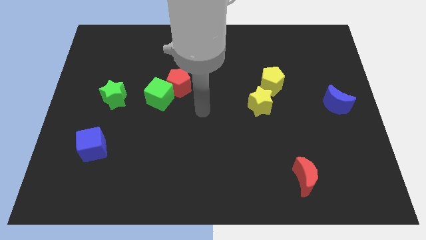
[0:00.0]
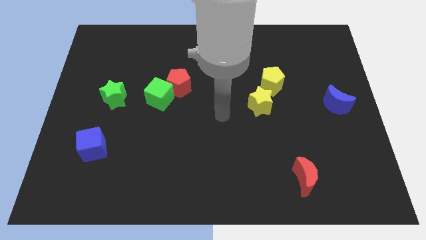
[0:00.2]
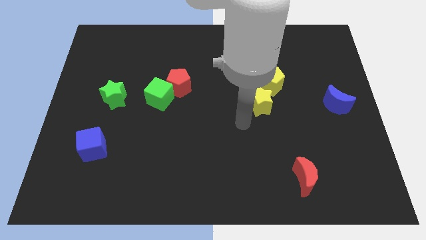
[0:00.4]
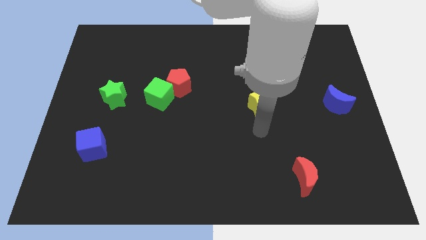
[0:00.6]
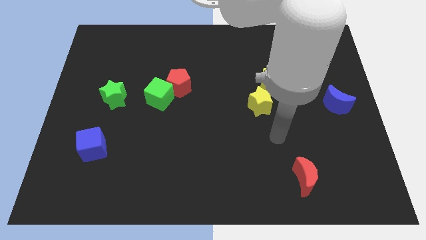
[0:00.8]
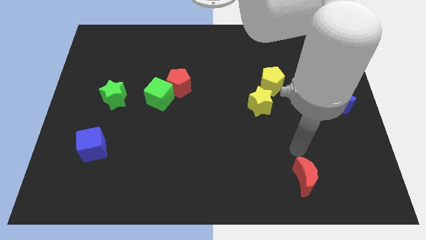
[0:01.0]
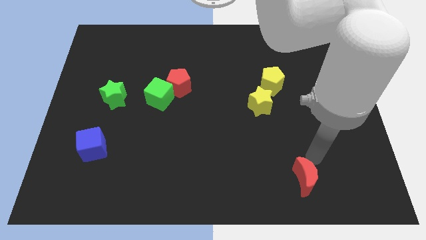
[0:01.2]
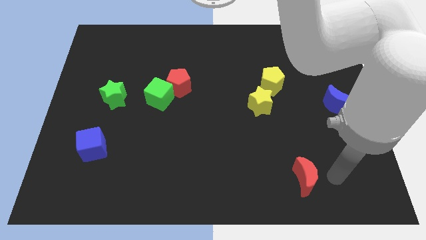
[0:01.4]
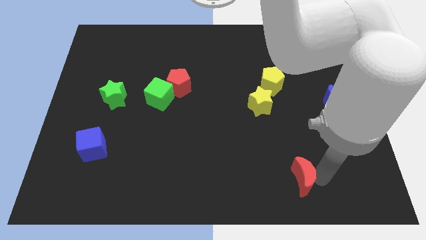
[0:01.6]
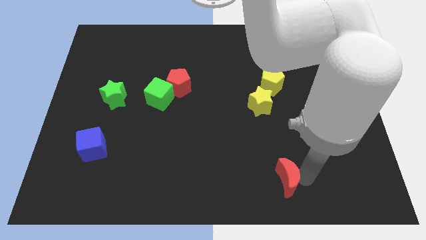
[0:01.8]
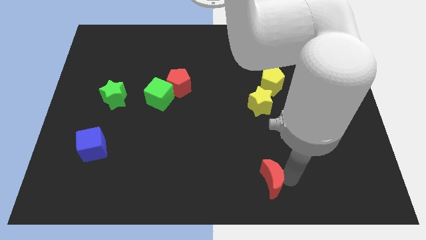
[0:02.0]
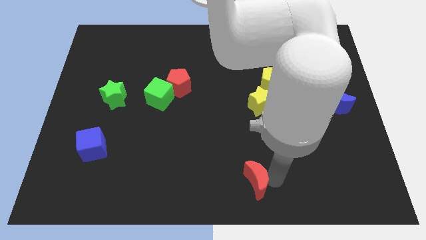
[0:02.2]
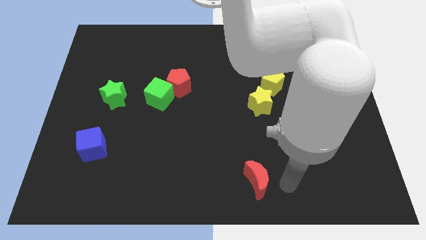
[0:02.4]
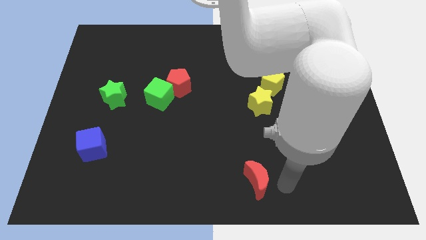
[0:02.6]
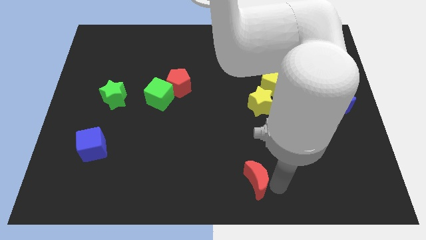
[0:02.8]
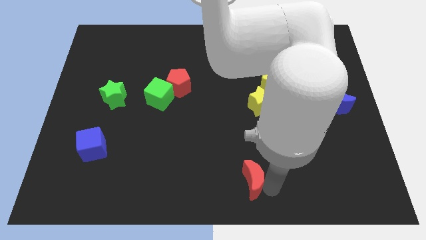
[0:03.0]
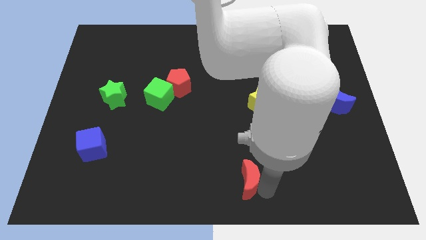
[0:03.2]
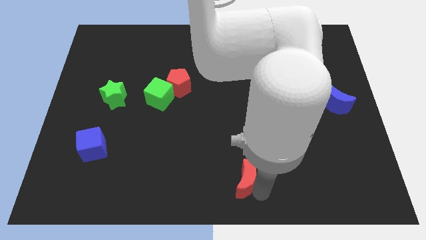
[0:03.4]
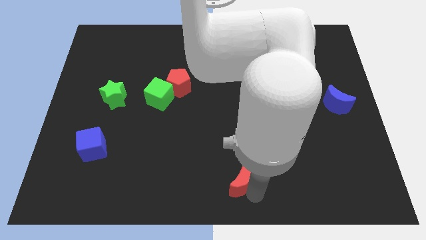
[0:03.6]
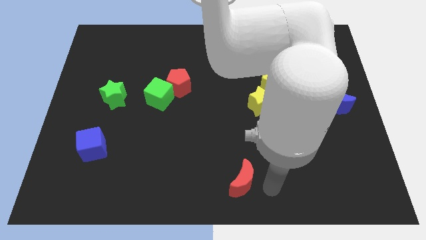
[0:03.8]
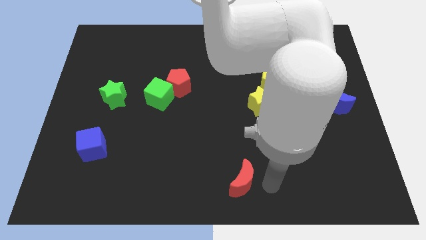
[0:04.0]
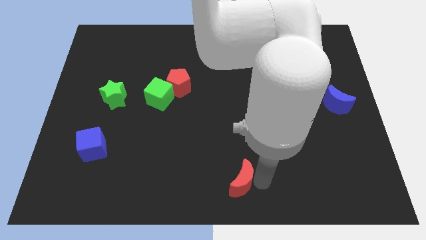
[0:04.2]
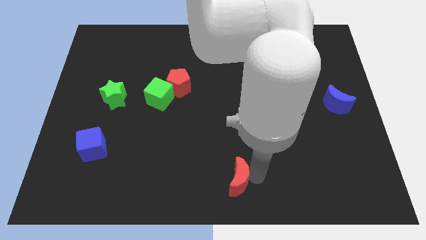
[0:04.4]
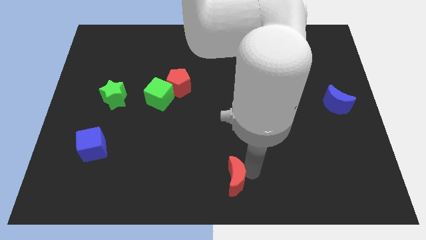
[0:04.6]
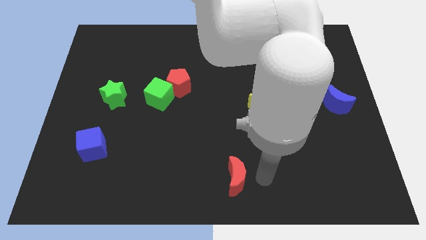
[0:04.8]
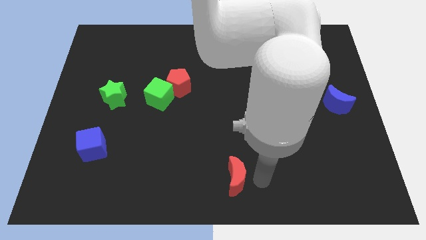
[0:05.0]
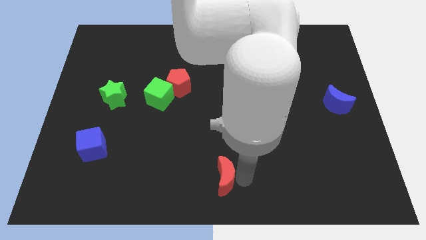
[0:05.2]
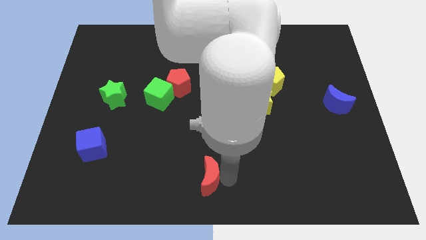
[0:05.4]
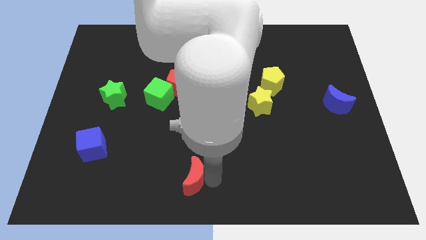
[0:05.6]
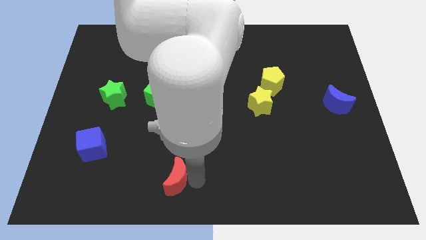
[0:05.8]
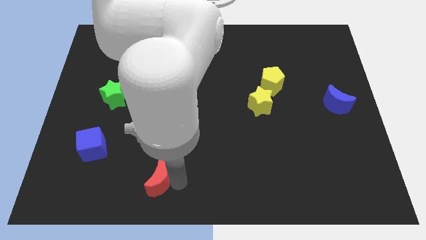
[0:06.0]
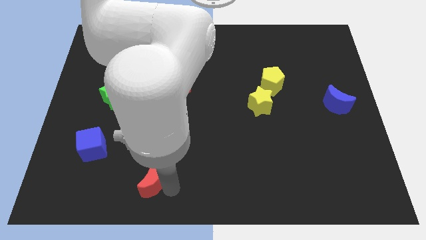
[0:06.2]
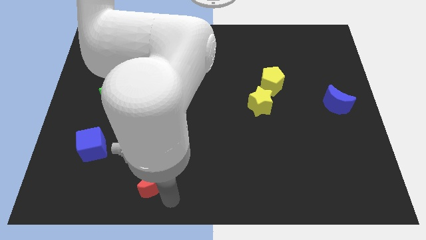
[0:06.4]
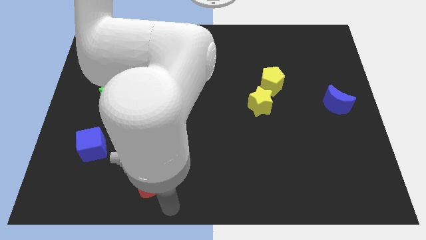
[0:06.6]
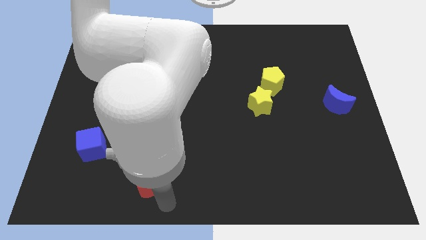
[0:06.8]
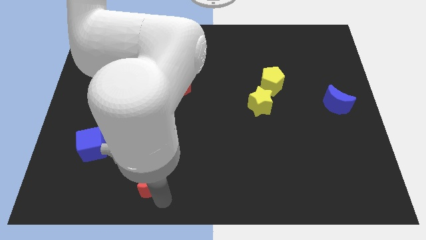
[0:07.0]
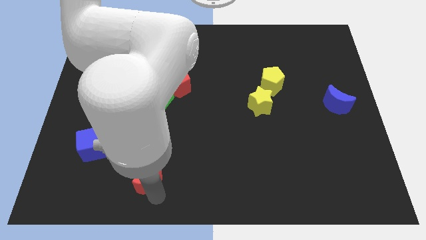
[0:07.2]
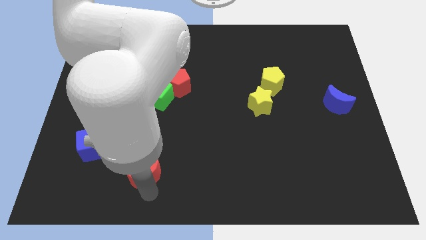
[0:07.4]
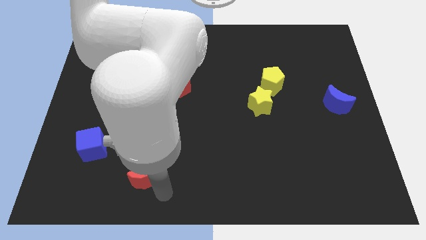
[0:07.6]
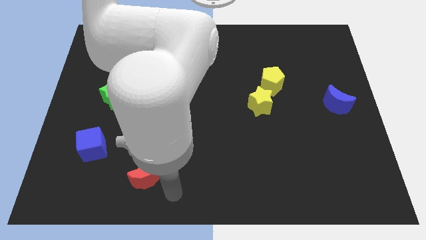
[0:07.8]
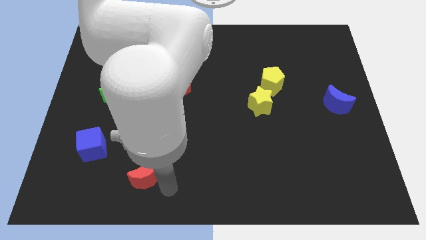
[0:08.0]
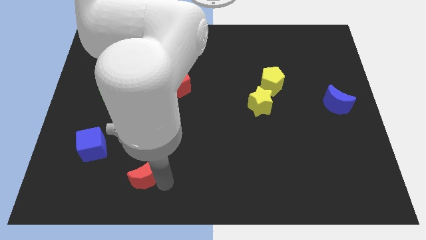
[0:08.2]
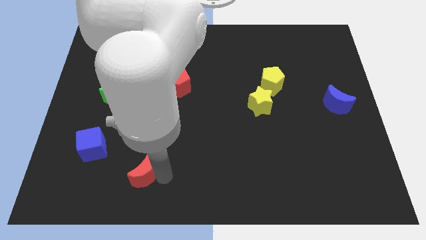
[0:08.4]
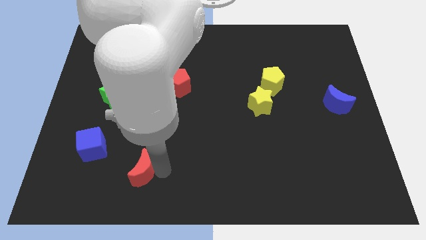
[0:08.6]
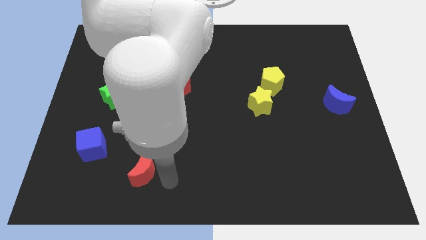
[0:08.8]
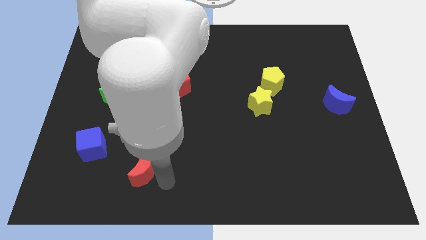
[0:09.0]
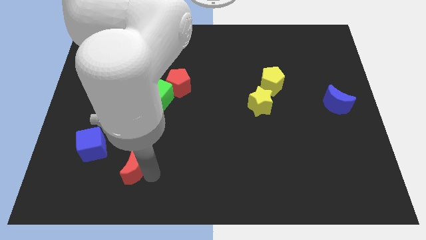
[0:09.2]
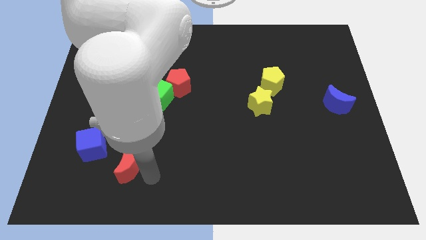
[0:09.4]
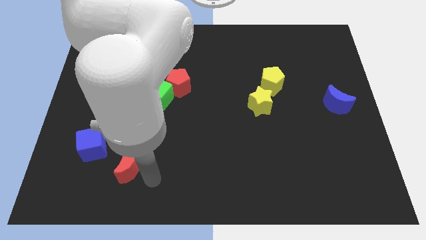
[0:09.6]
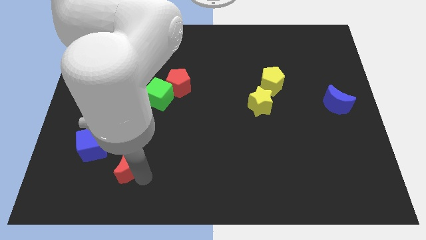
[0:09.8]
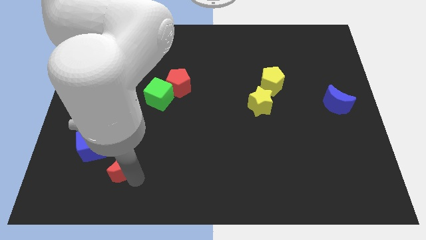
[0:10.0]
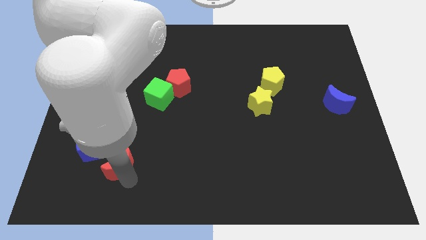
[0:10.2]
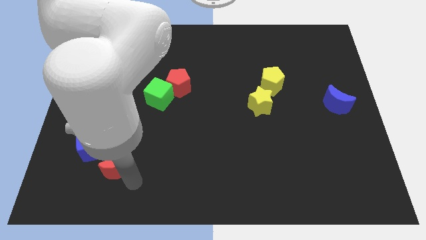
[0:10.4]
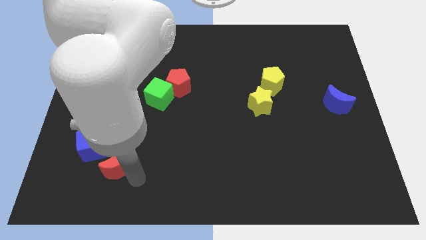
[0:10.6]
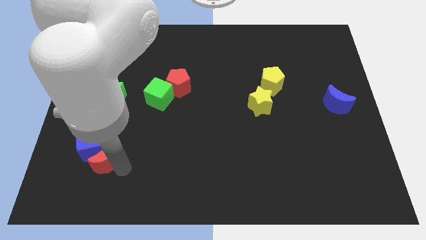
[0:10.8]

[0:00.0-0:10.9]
move the red moon towards the blue cube

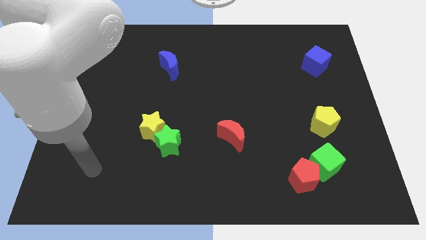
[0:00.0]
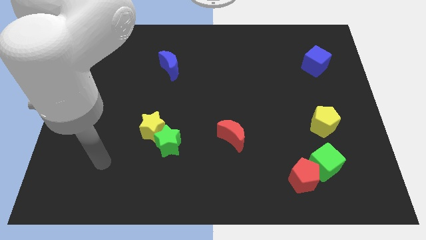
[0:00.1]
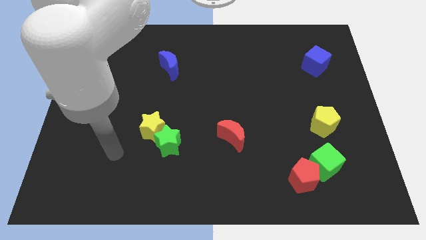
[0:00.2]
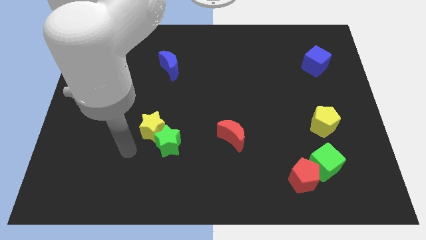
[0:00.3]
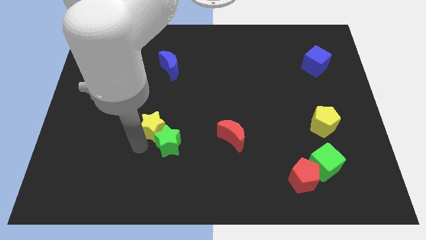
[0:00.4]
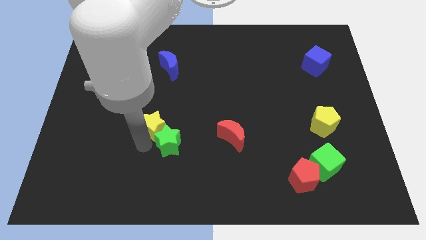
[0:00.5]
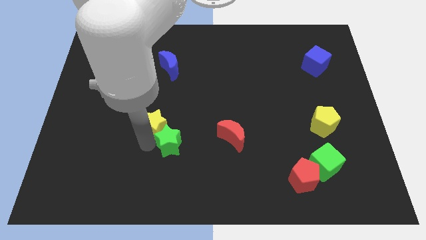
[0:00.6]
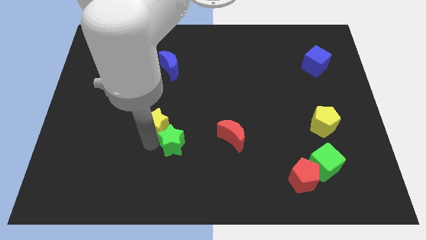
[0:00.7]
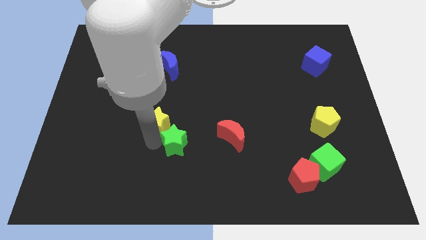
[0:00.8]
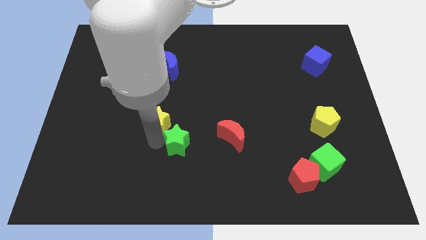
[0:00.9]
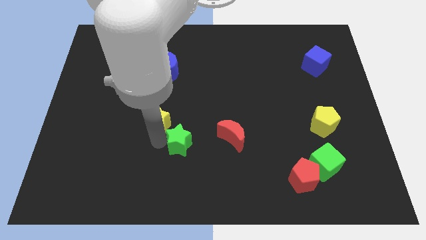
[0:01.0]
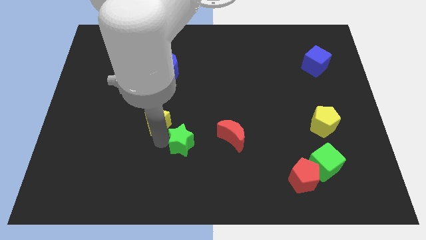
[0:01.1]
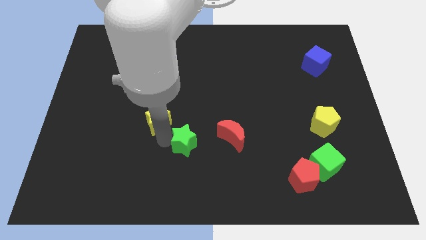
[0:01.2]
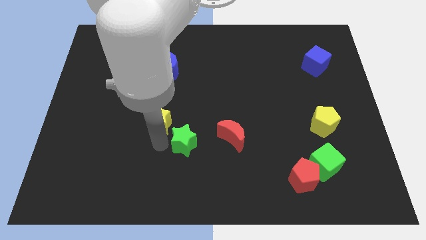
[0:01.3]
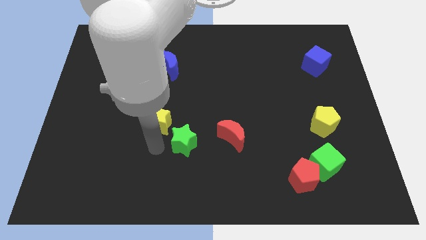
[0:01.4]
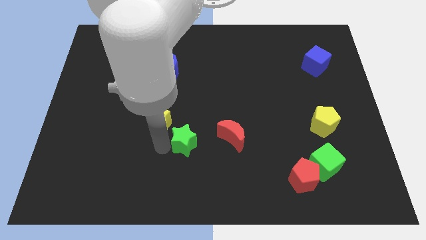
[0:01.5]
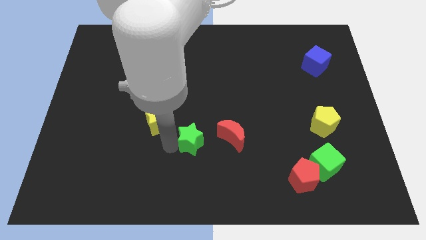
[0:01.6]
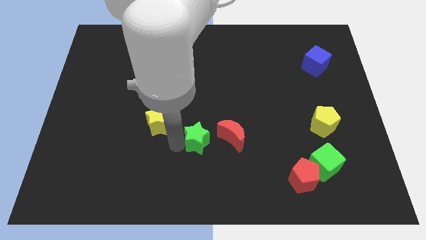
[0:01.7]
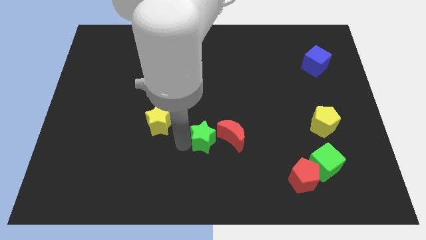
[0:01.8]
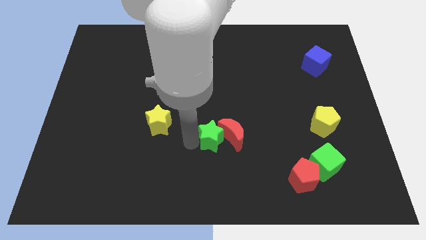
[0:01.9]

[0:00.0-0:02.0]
move the green star to the red moon
